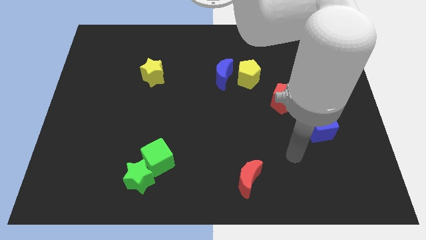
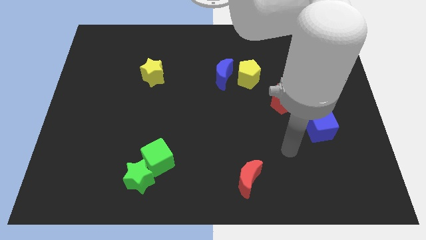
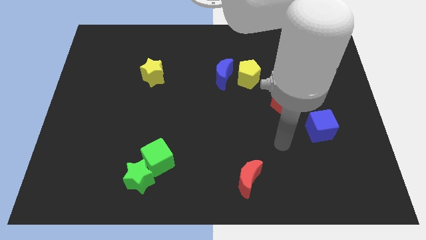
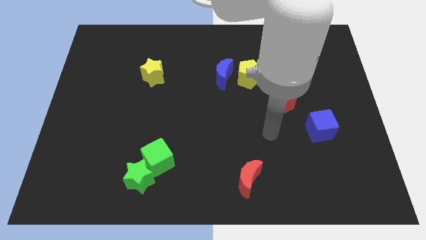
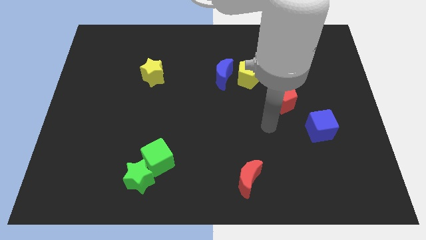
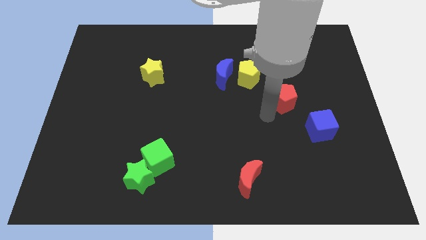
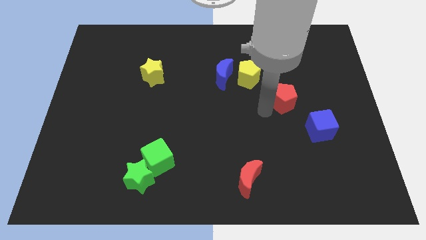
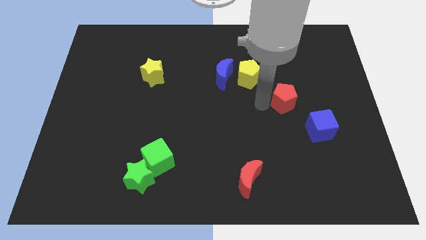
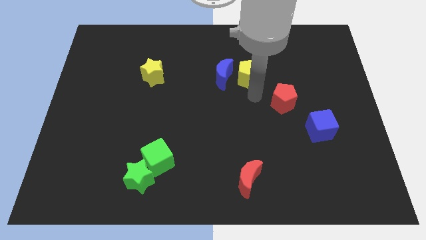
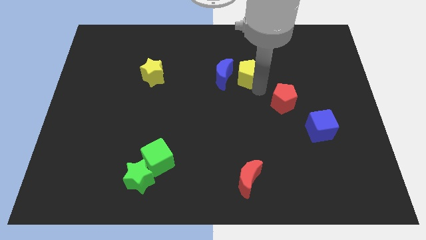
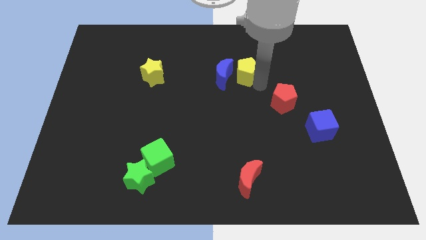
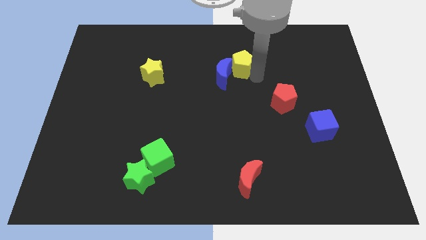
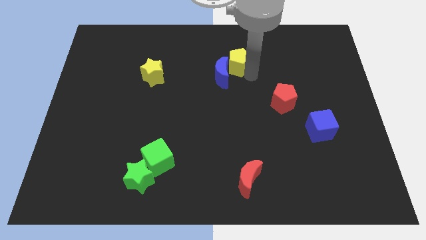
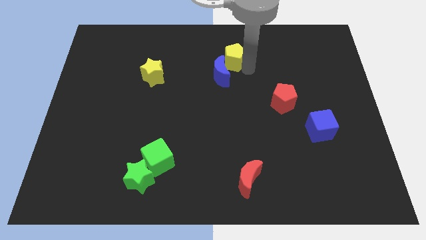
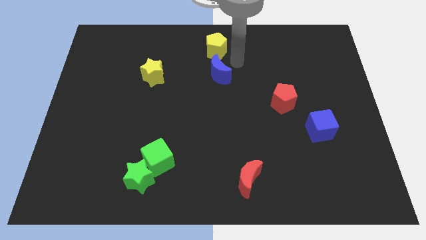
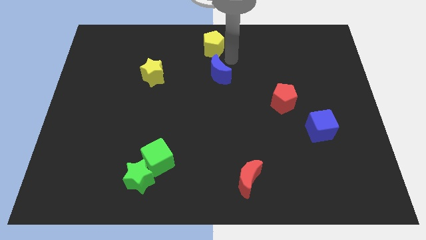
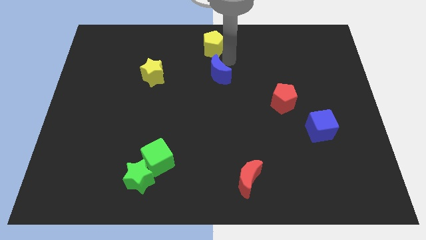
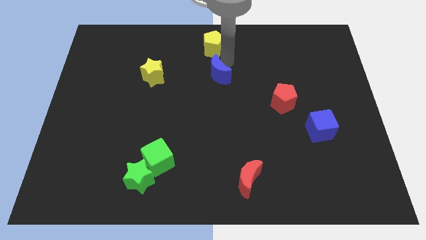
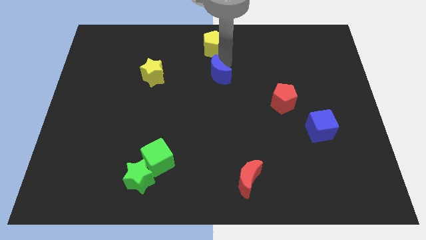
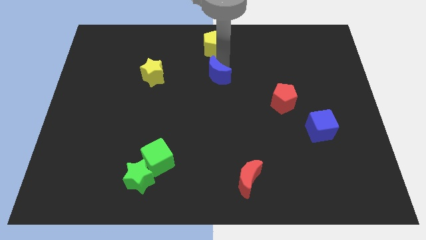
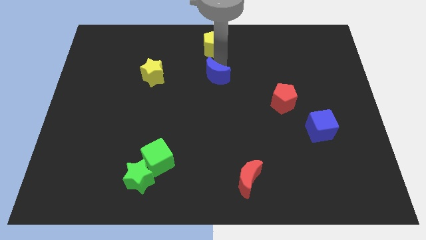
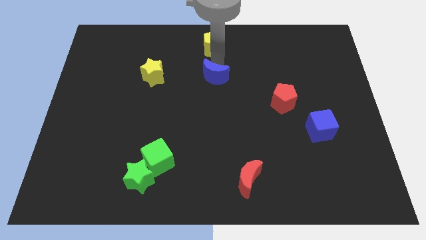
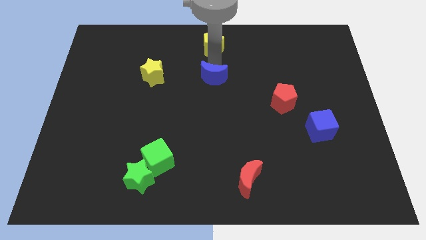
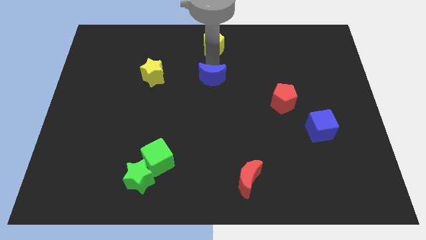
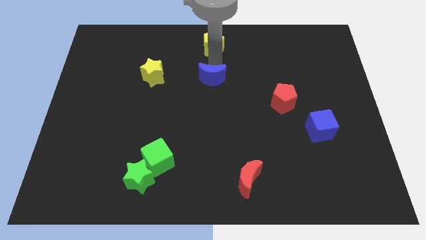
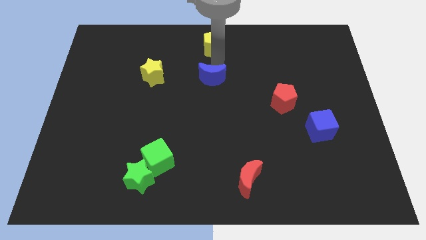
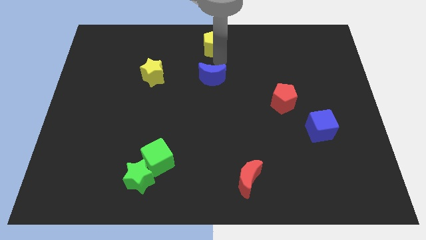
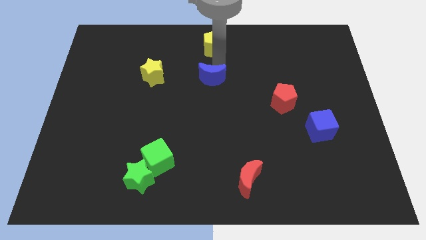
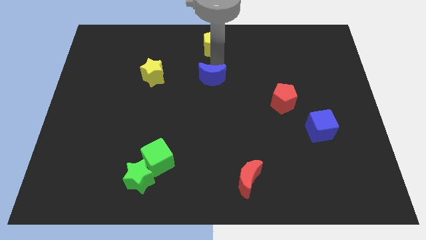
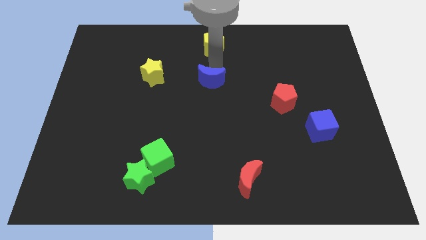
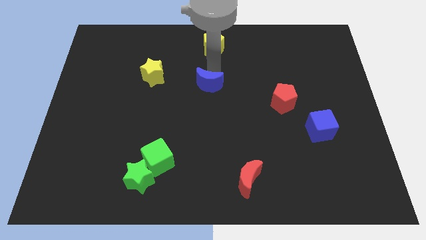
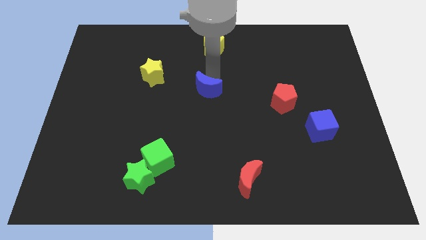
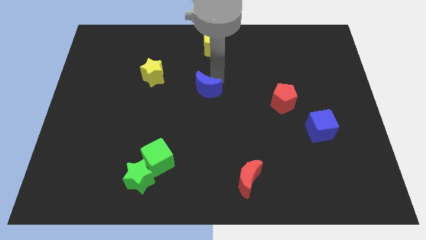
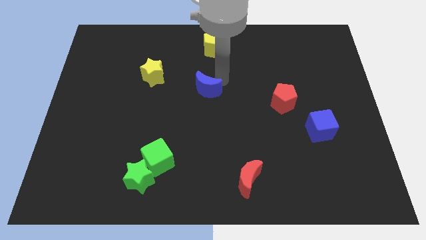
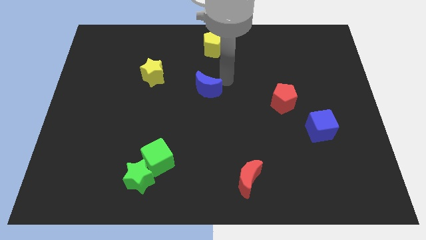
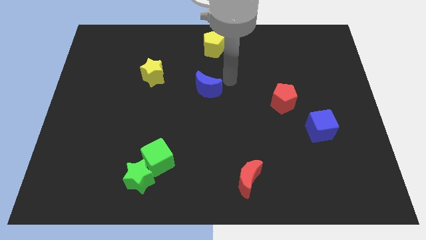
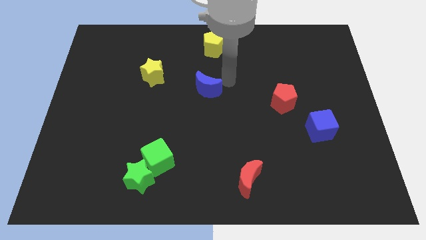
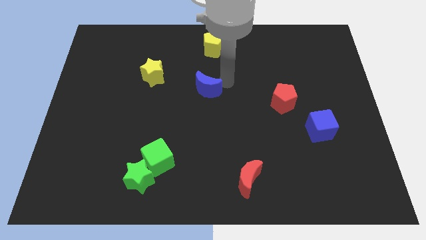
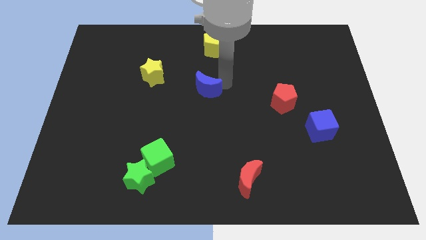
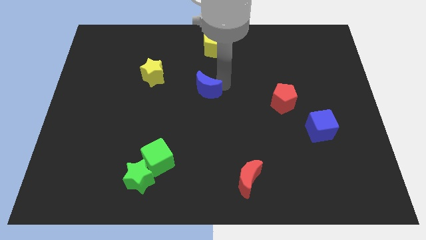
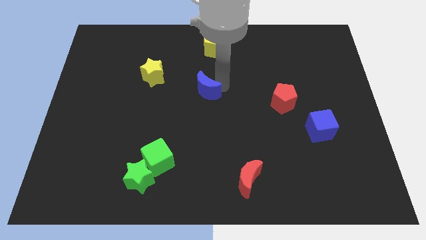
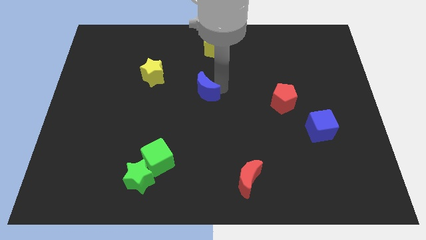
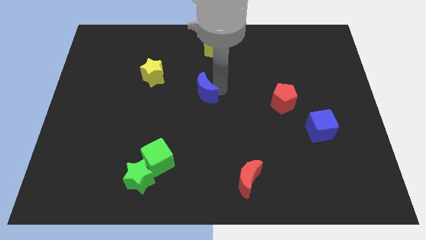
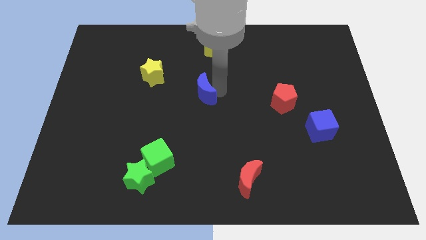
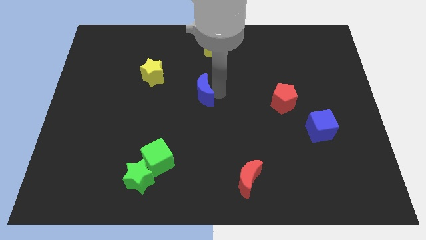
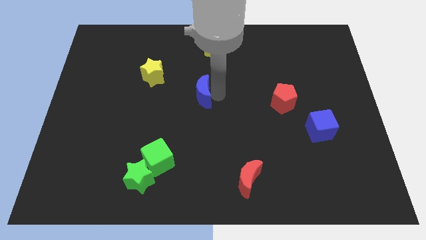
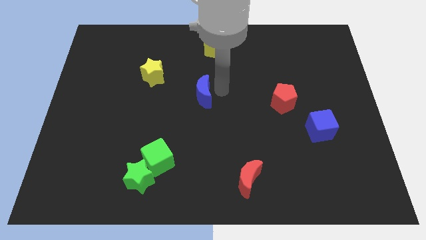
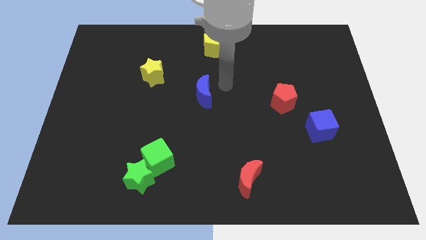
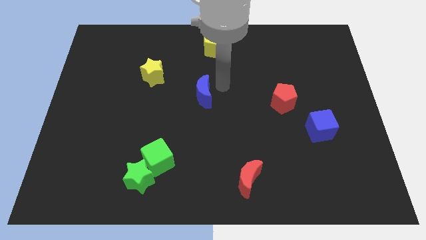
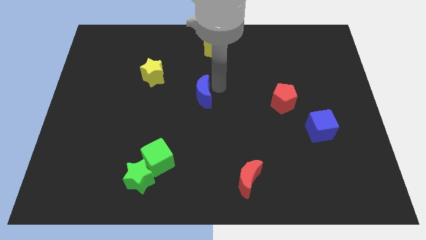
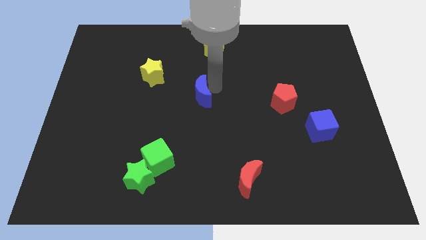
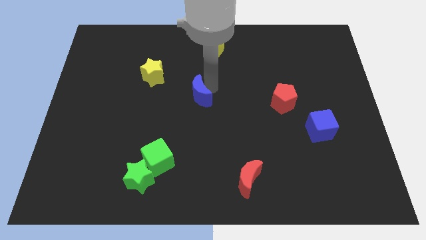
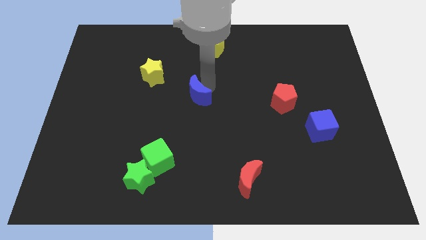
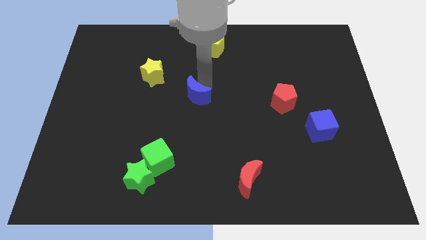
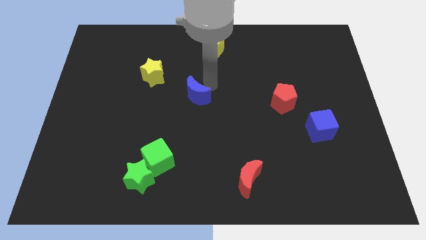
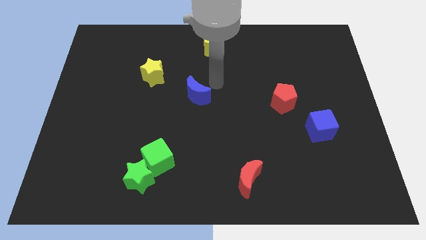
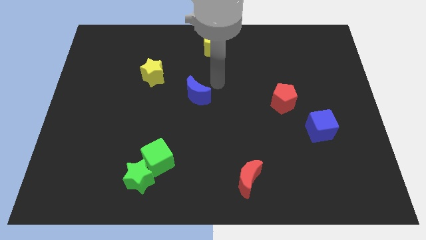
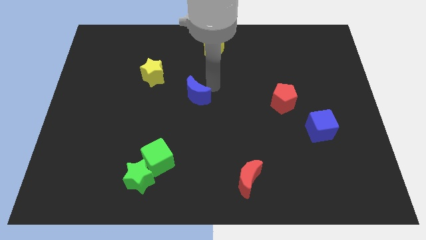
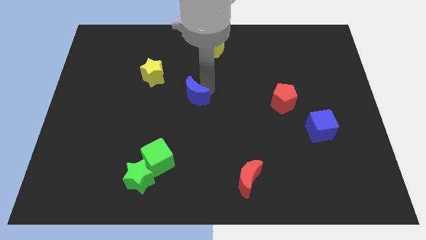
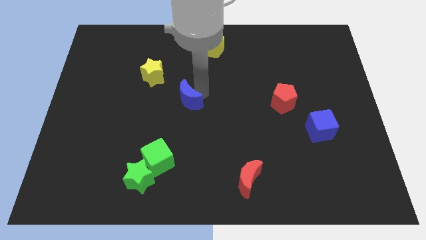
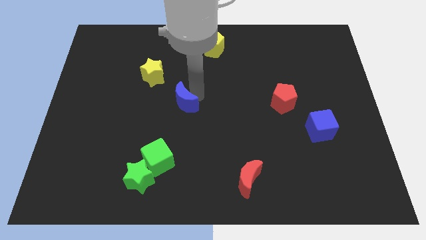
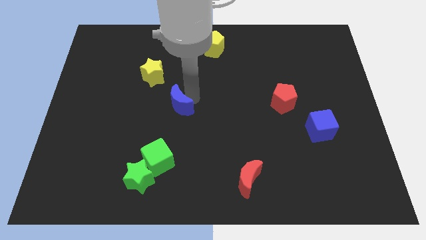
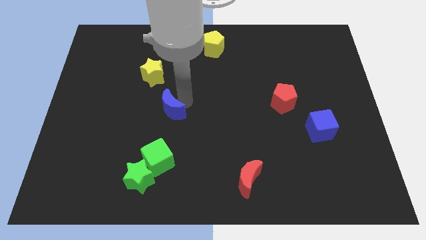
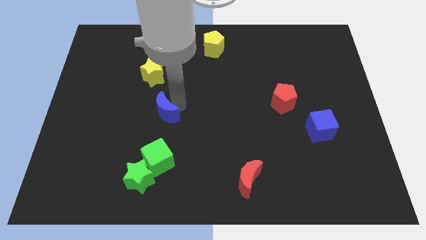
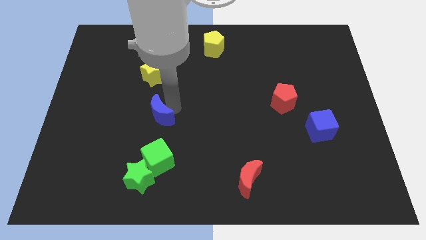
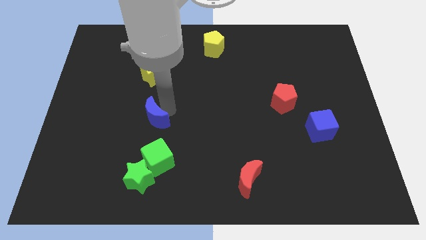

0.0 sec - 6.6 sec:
move the blue moon down and then to the left

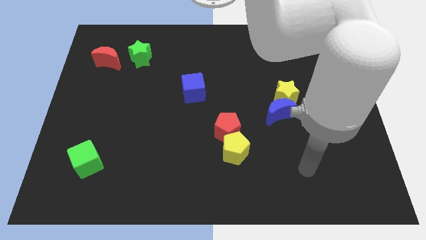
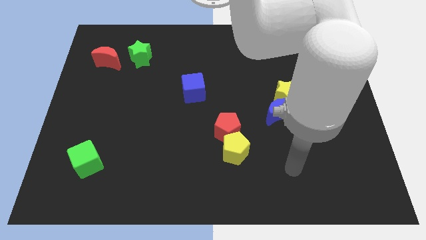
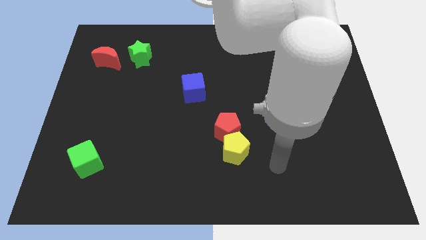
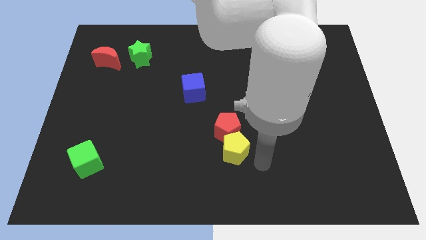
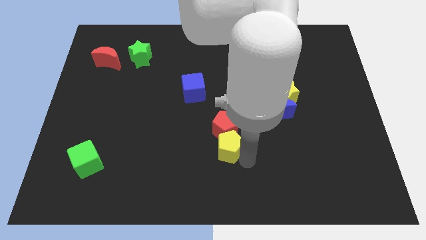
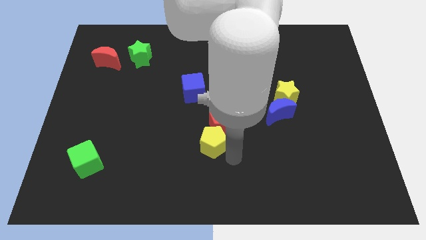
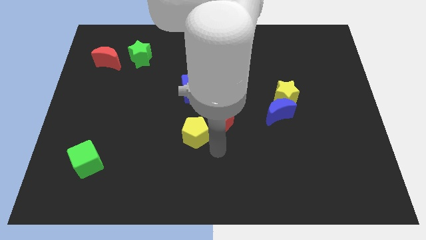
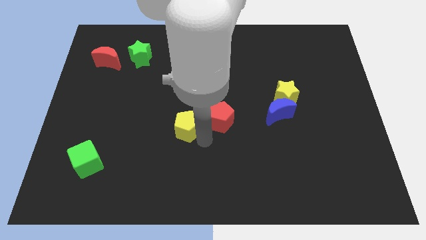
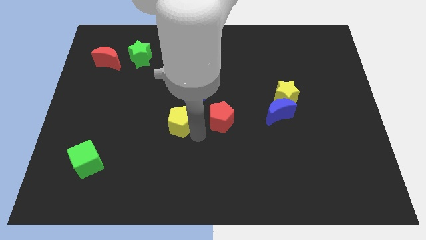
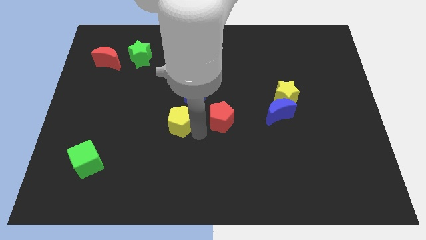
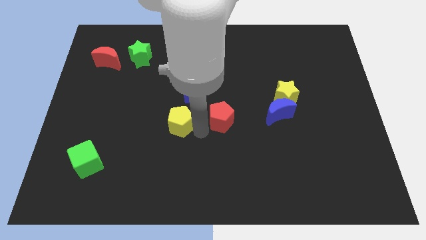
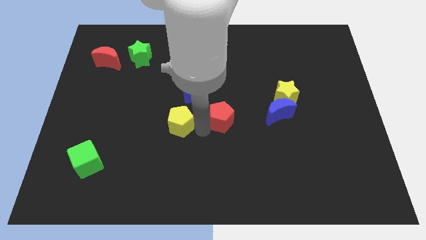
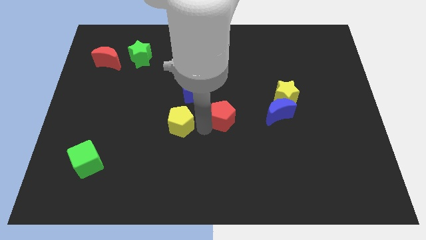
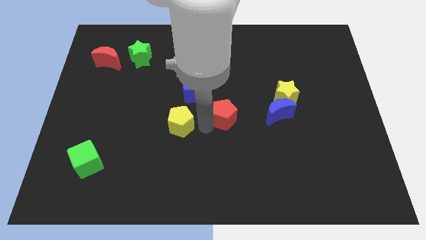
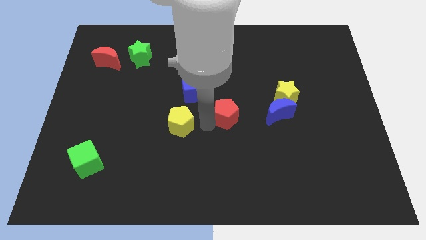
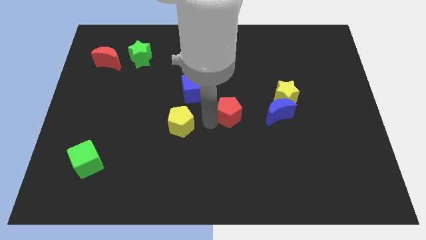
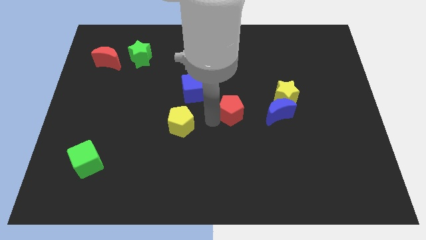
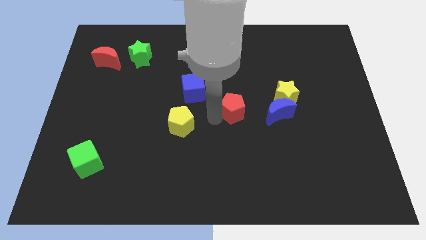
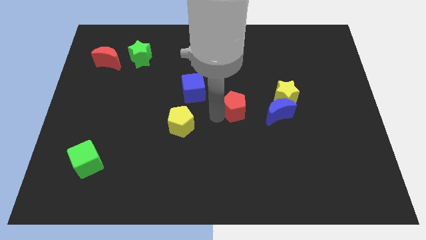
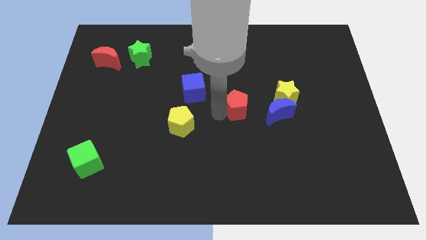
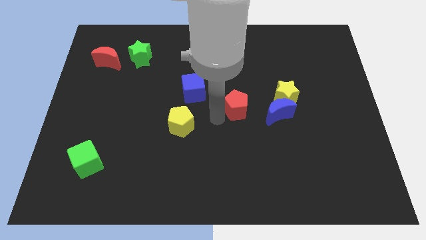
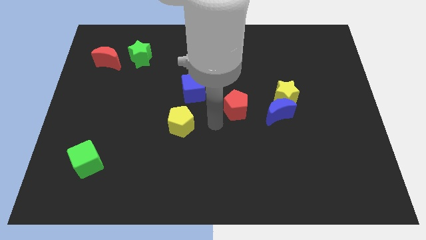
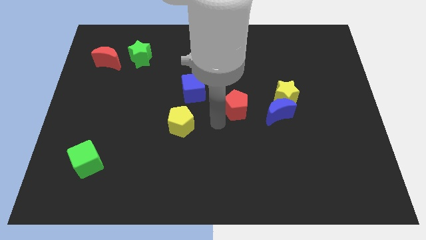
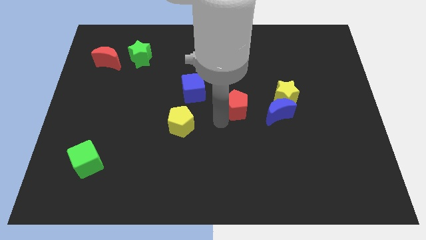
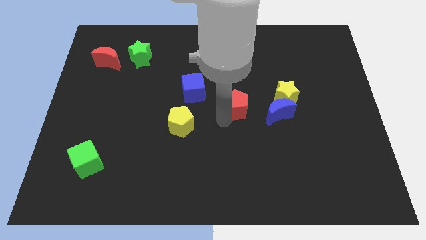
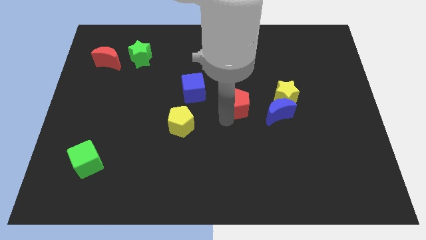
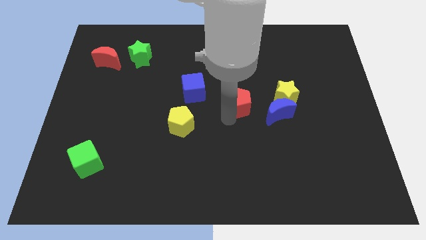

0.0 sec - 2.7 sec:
slightly move the red pentagon diagonally upwards and to the right
